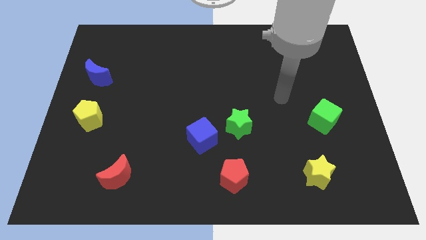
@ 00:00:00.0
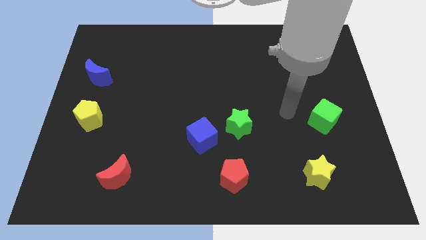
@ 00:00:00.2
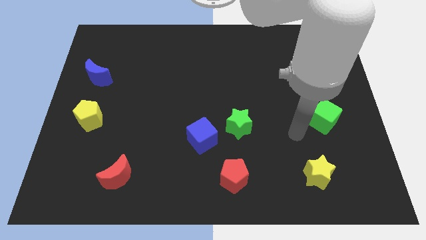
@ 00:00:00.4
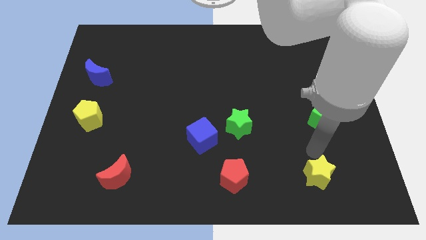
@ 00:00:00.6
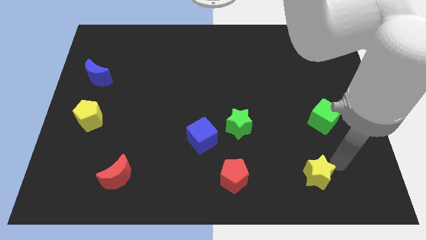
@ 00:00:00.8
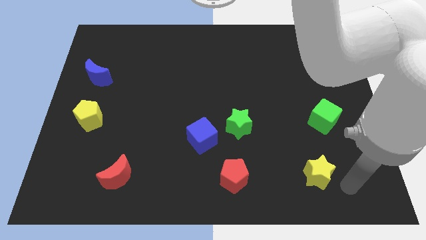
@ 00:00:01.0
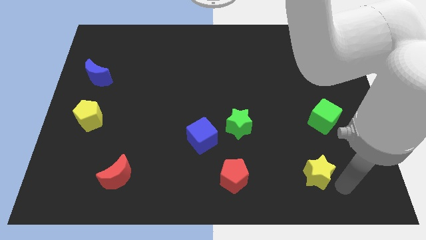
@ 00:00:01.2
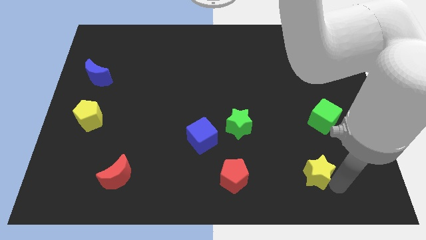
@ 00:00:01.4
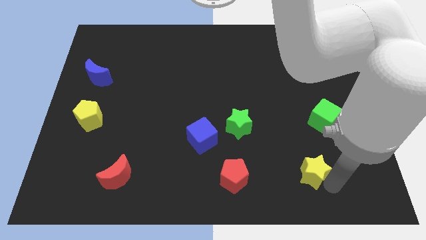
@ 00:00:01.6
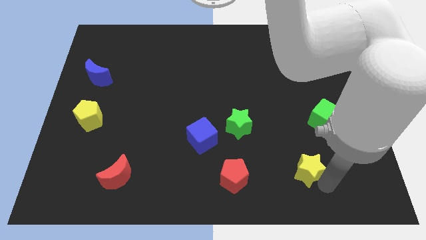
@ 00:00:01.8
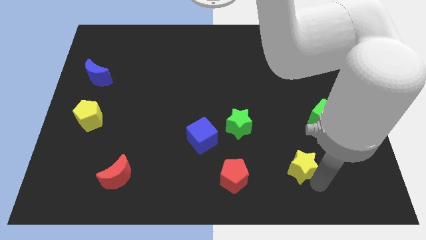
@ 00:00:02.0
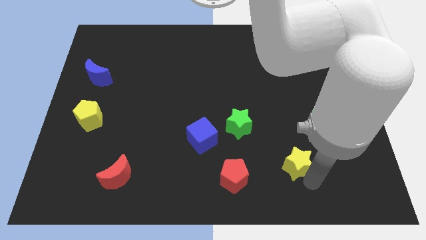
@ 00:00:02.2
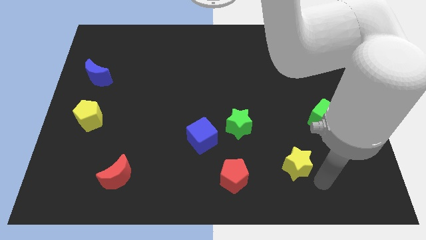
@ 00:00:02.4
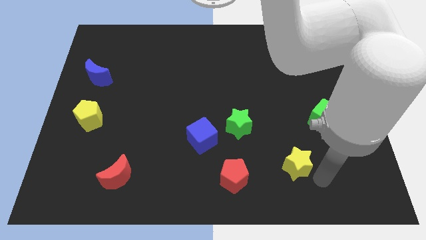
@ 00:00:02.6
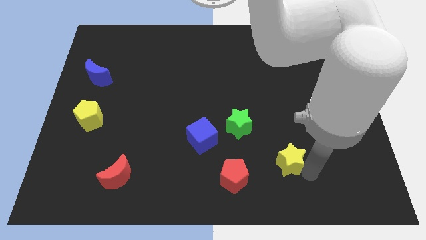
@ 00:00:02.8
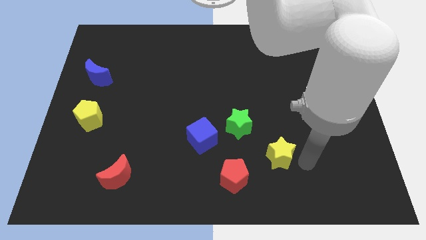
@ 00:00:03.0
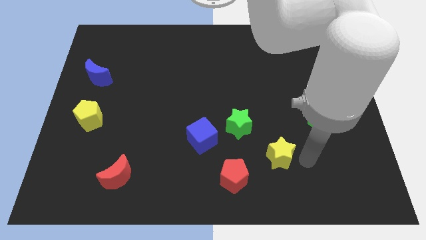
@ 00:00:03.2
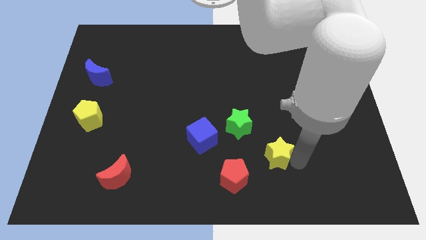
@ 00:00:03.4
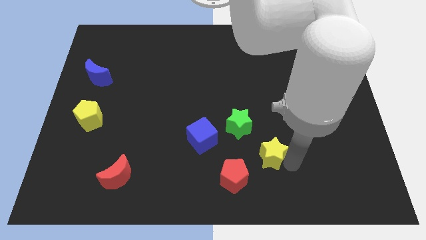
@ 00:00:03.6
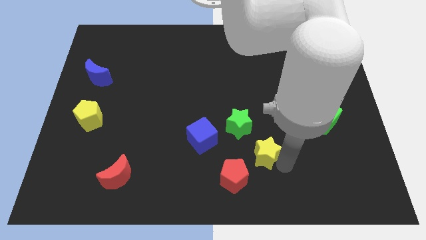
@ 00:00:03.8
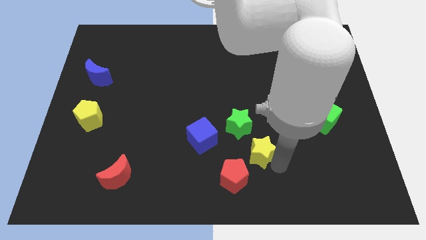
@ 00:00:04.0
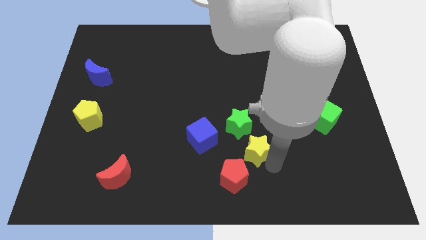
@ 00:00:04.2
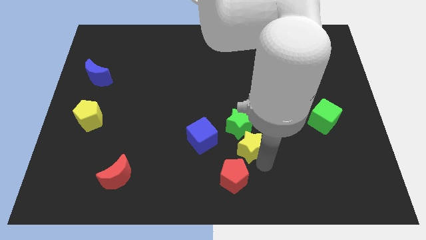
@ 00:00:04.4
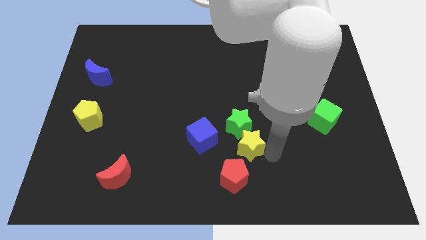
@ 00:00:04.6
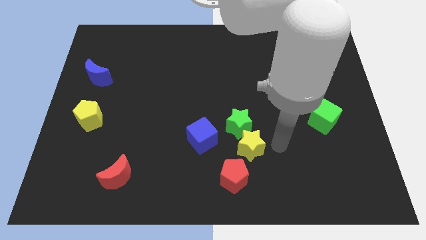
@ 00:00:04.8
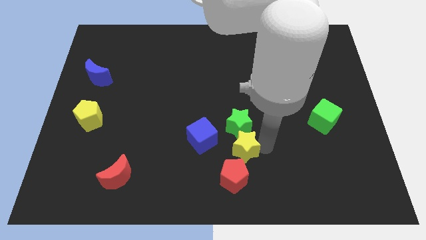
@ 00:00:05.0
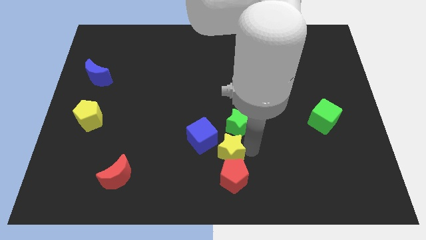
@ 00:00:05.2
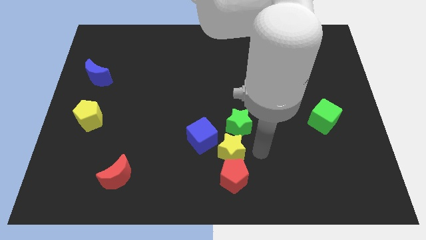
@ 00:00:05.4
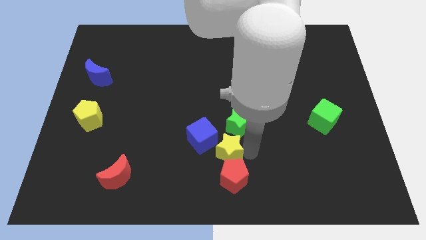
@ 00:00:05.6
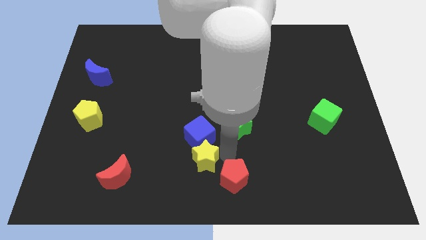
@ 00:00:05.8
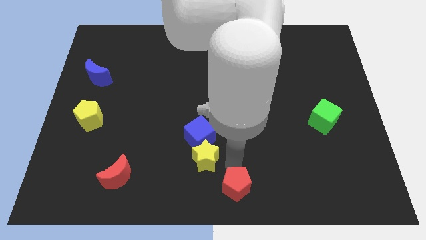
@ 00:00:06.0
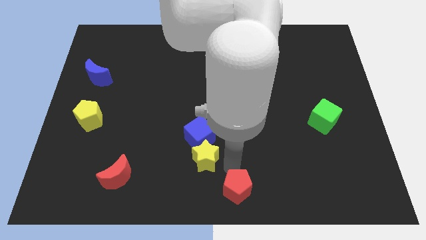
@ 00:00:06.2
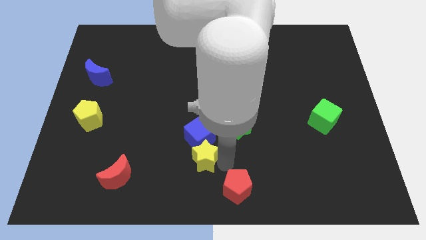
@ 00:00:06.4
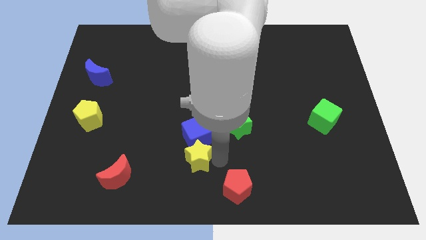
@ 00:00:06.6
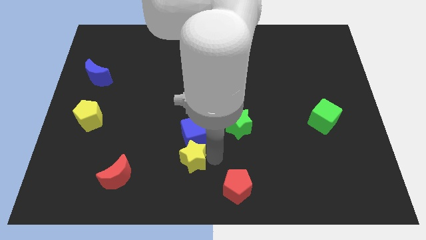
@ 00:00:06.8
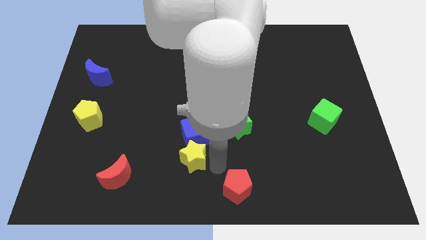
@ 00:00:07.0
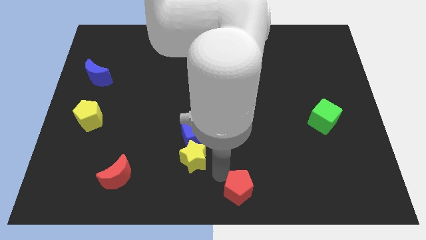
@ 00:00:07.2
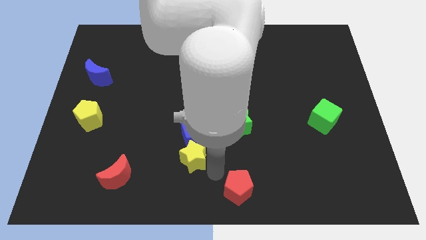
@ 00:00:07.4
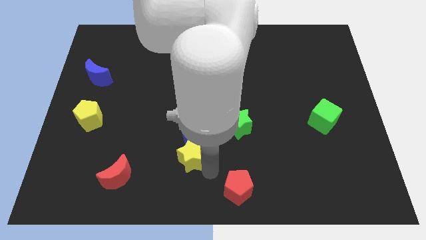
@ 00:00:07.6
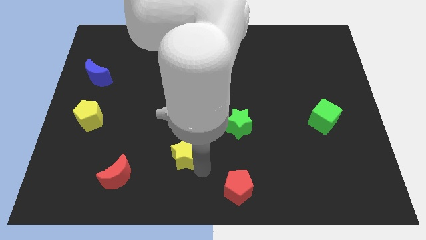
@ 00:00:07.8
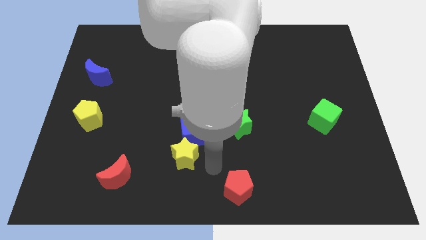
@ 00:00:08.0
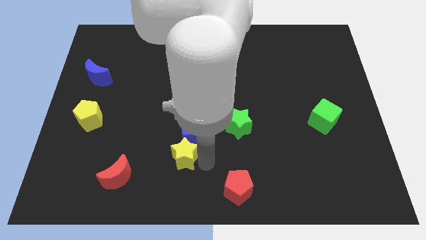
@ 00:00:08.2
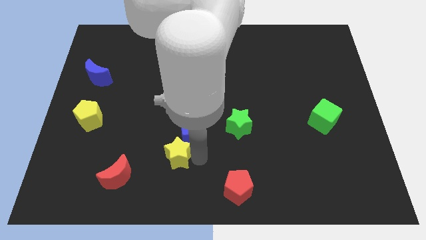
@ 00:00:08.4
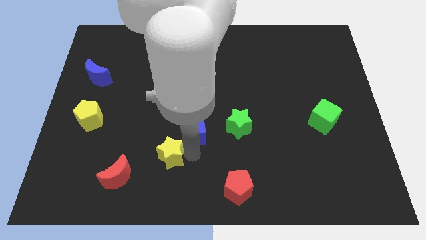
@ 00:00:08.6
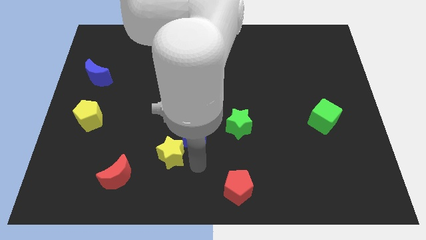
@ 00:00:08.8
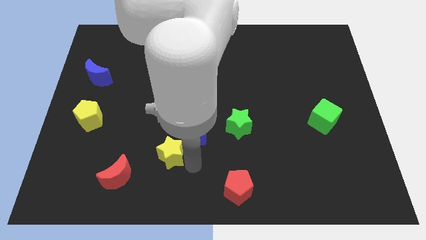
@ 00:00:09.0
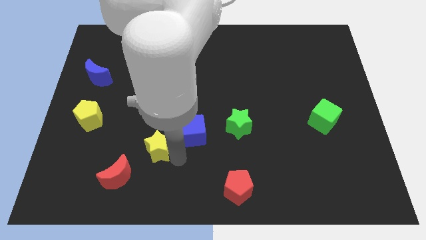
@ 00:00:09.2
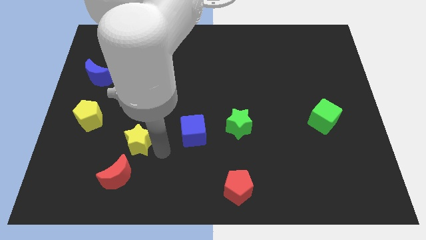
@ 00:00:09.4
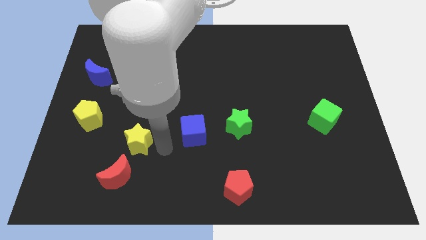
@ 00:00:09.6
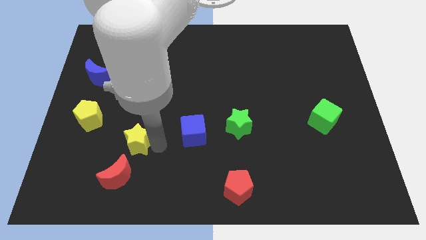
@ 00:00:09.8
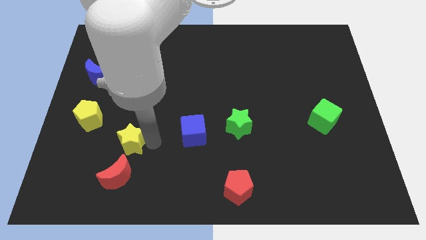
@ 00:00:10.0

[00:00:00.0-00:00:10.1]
put the yellow star to the bottom right of the yellow pentagon

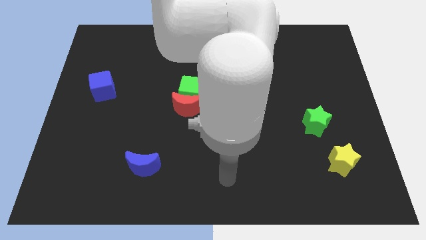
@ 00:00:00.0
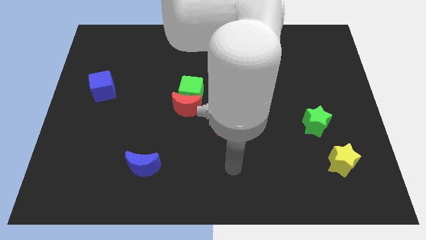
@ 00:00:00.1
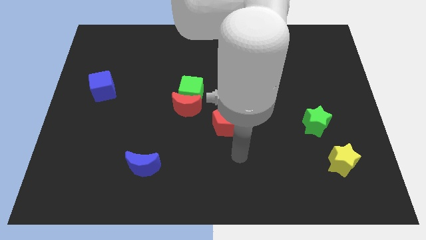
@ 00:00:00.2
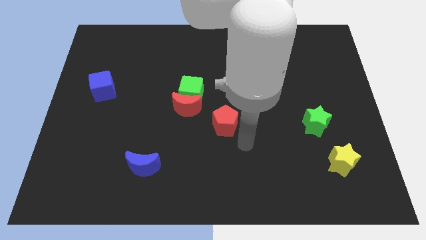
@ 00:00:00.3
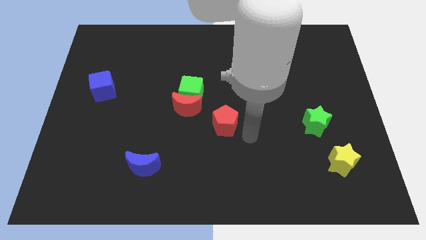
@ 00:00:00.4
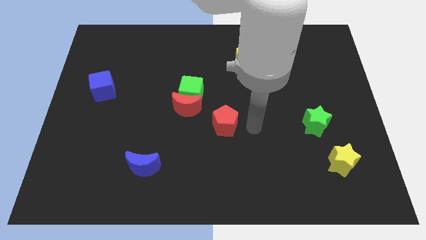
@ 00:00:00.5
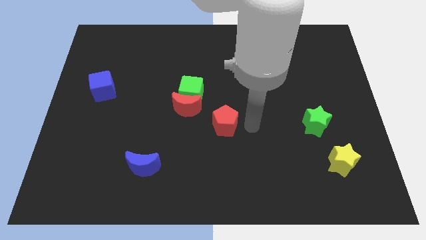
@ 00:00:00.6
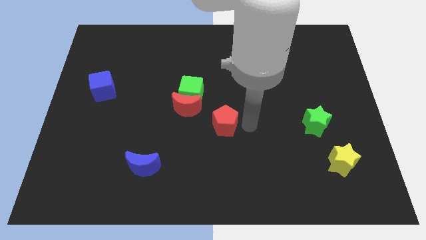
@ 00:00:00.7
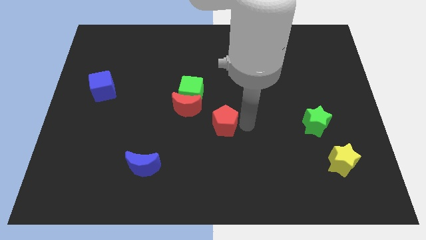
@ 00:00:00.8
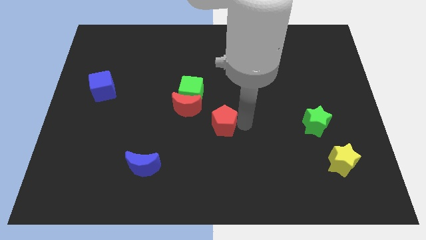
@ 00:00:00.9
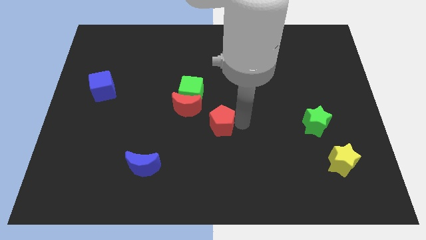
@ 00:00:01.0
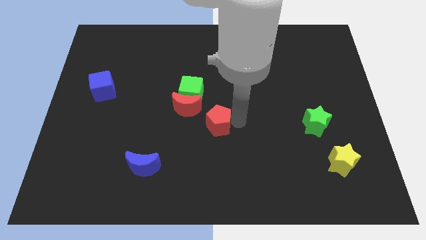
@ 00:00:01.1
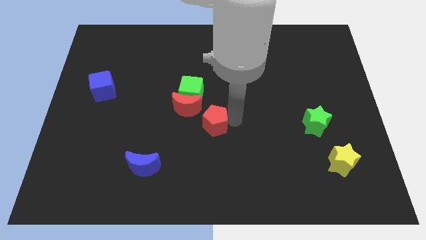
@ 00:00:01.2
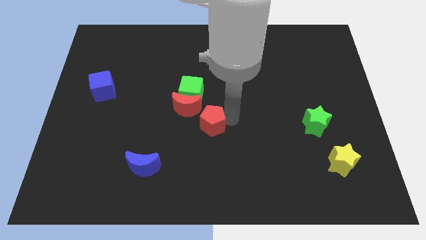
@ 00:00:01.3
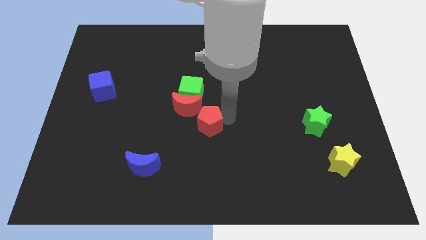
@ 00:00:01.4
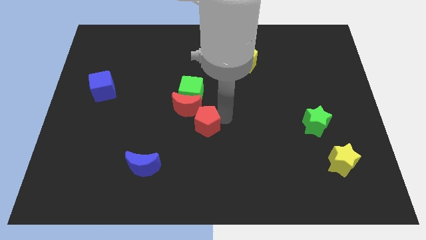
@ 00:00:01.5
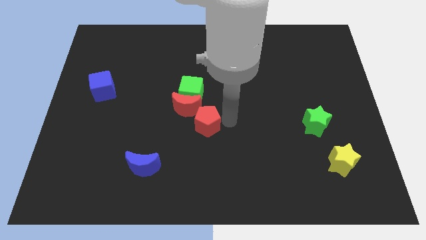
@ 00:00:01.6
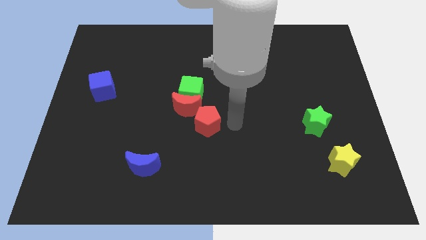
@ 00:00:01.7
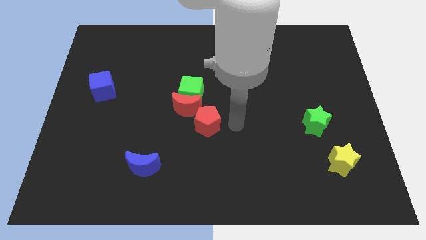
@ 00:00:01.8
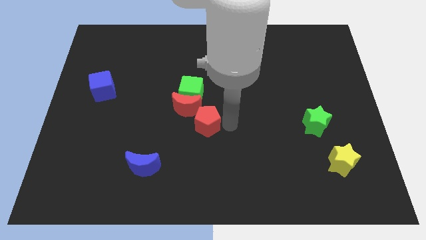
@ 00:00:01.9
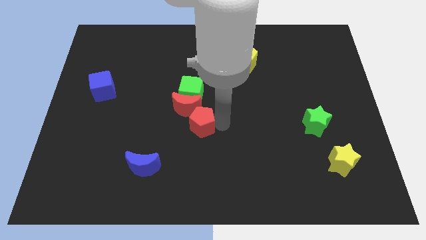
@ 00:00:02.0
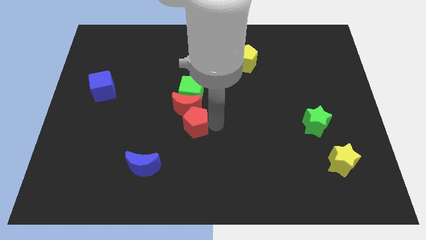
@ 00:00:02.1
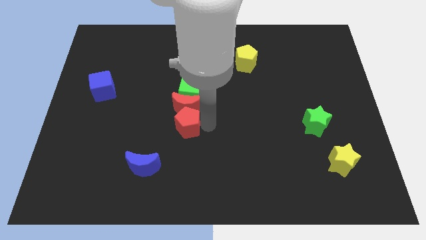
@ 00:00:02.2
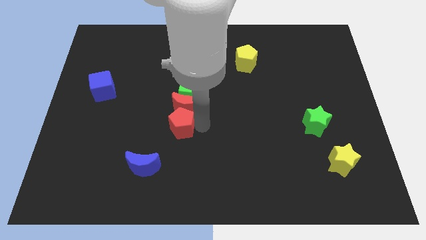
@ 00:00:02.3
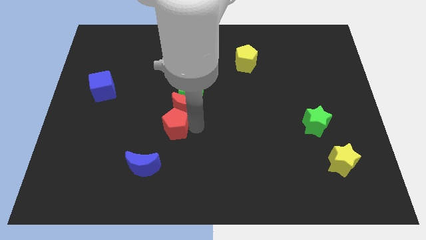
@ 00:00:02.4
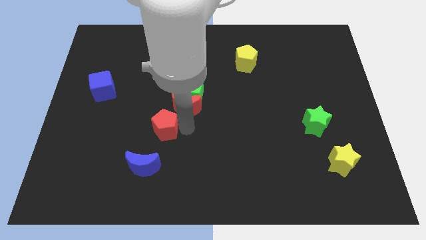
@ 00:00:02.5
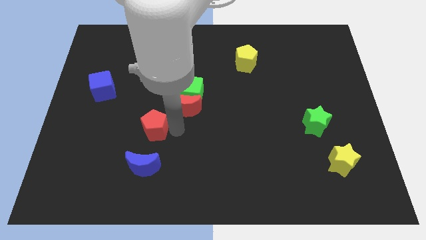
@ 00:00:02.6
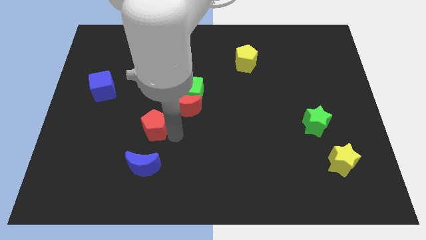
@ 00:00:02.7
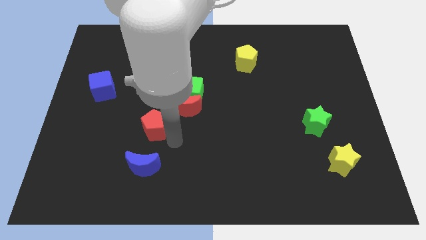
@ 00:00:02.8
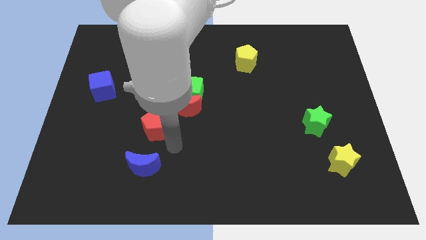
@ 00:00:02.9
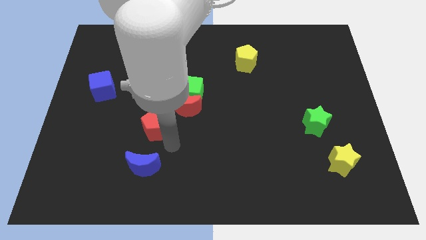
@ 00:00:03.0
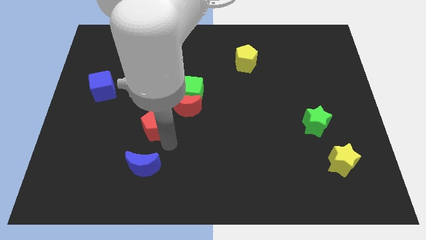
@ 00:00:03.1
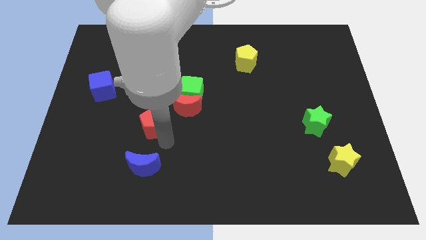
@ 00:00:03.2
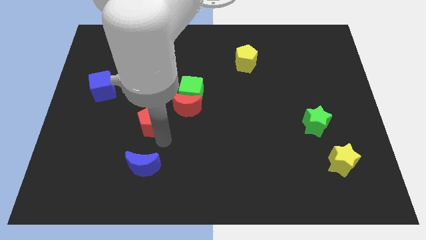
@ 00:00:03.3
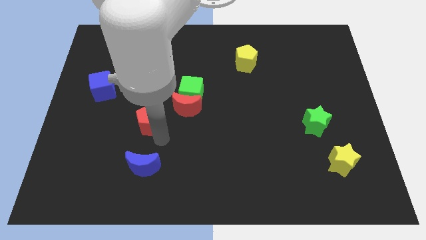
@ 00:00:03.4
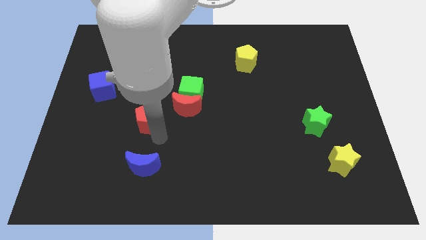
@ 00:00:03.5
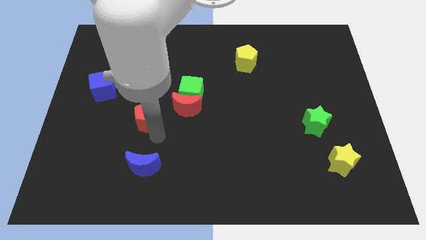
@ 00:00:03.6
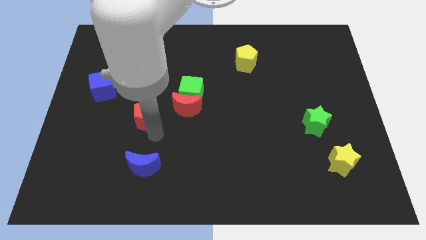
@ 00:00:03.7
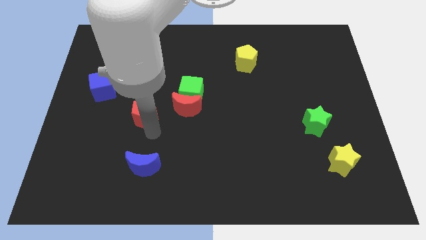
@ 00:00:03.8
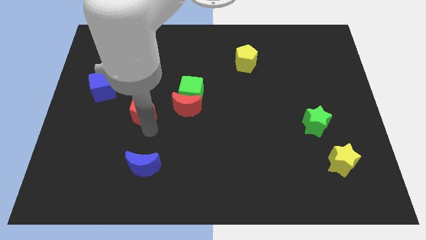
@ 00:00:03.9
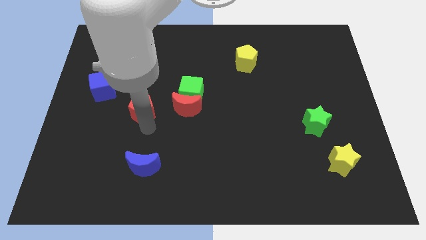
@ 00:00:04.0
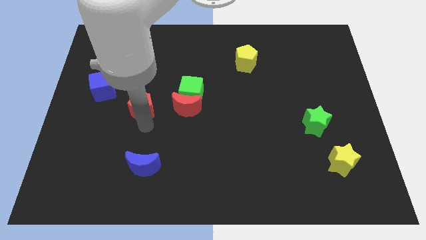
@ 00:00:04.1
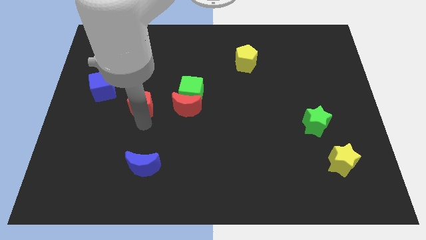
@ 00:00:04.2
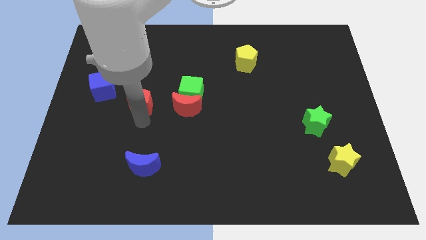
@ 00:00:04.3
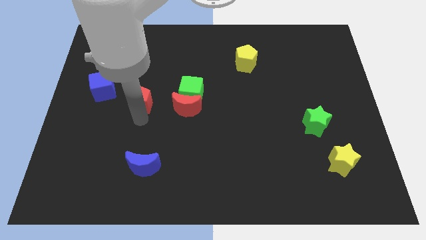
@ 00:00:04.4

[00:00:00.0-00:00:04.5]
slide the red pentagon to the right side of the blue cube
